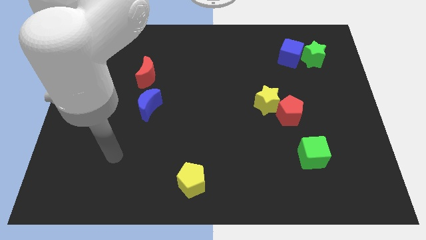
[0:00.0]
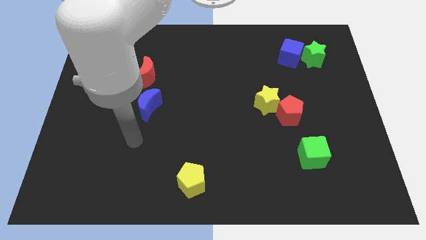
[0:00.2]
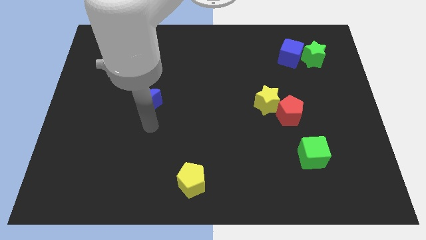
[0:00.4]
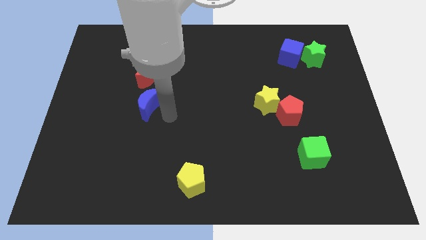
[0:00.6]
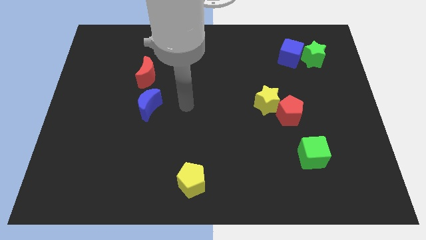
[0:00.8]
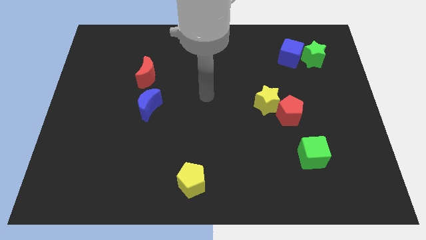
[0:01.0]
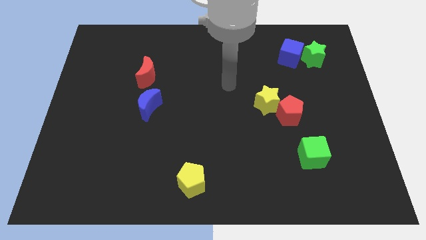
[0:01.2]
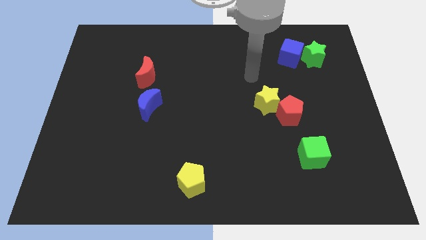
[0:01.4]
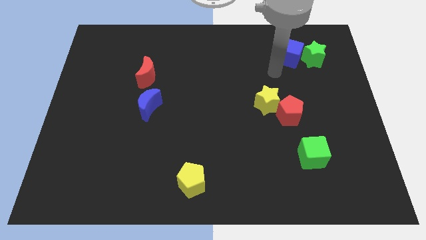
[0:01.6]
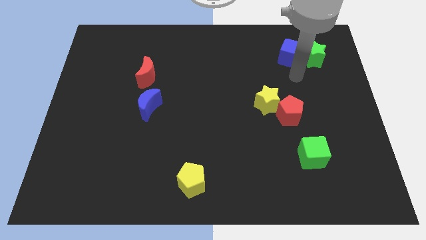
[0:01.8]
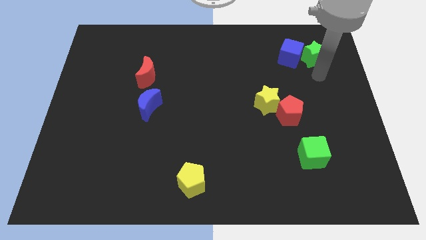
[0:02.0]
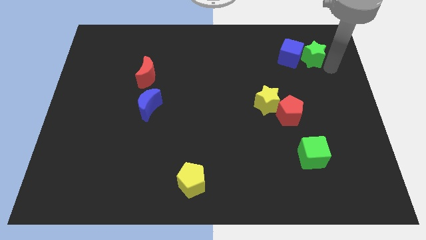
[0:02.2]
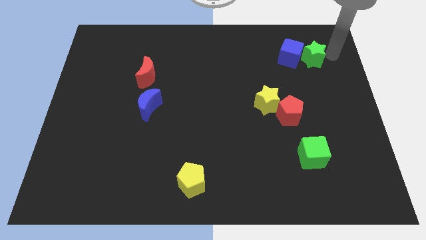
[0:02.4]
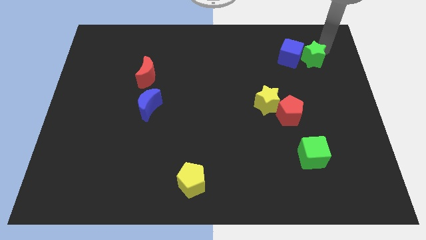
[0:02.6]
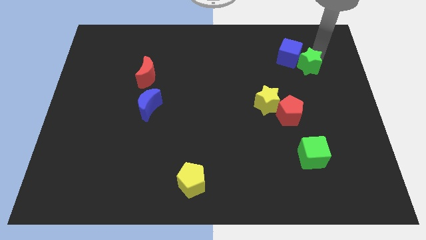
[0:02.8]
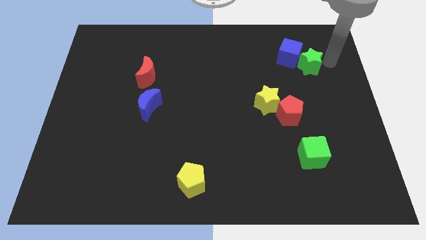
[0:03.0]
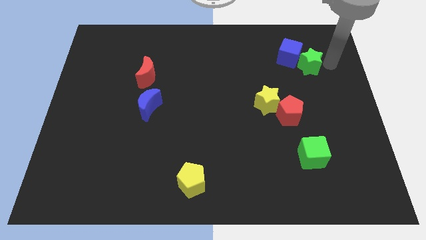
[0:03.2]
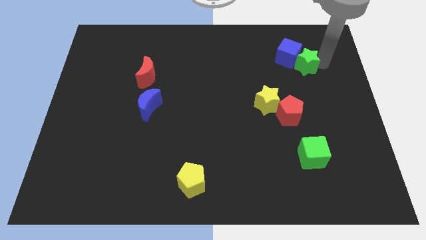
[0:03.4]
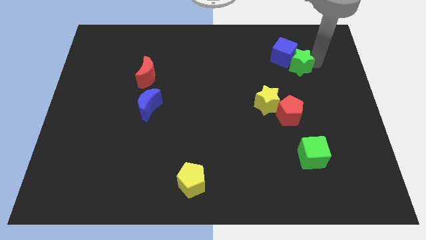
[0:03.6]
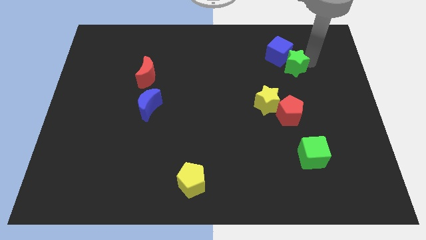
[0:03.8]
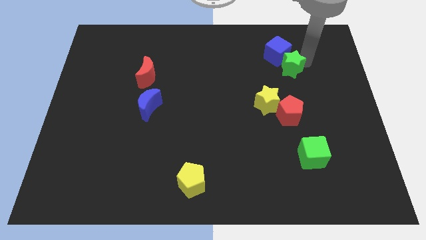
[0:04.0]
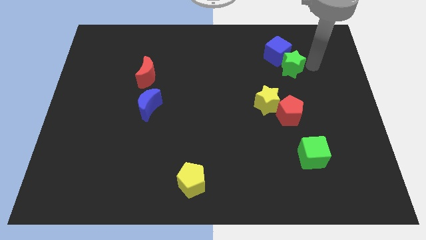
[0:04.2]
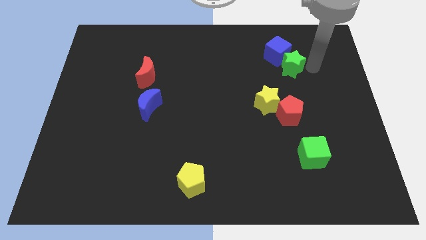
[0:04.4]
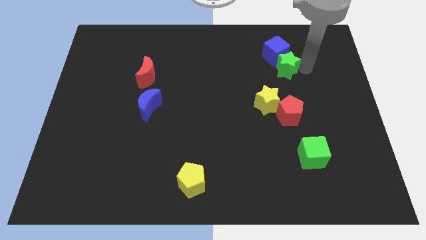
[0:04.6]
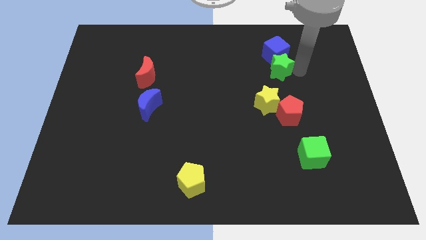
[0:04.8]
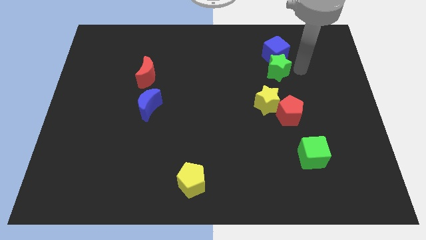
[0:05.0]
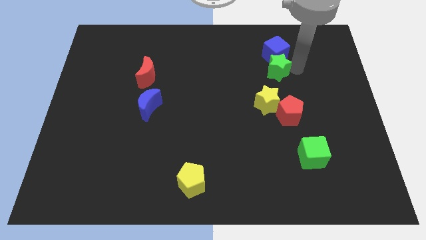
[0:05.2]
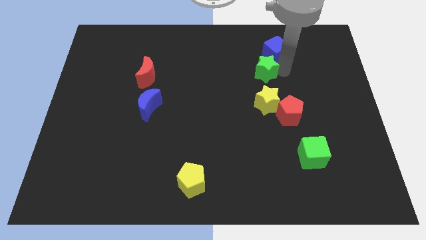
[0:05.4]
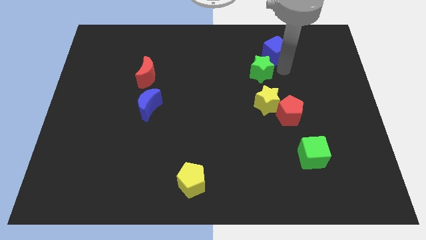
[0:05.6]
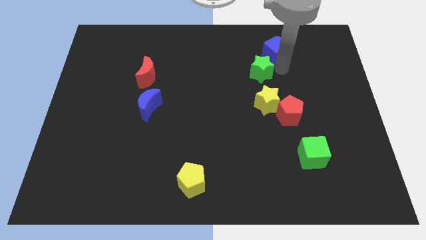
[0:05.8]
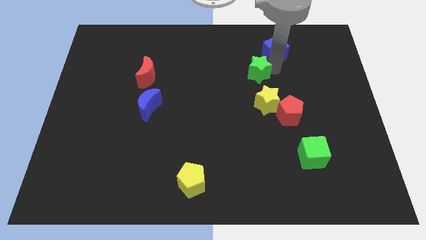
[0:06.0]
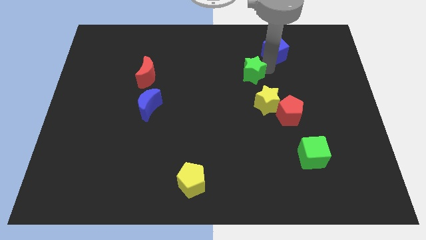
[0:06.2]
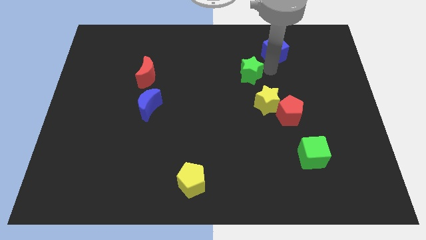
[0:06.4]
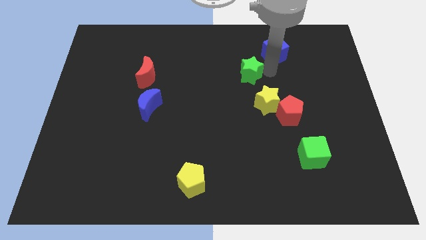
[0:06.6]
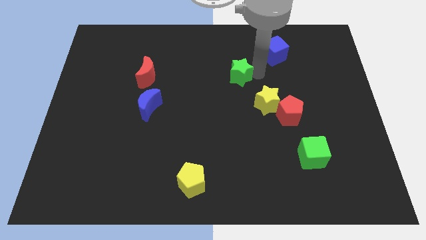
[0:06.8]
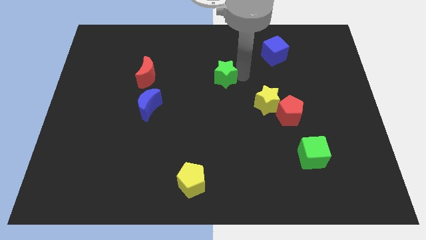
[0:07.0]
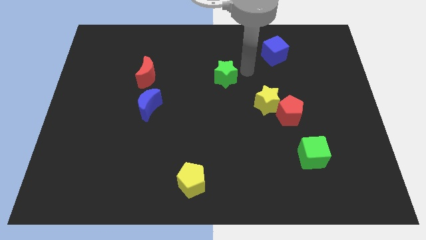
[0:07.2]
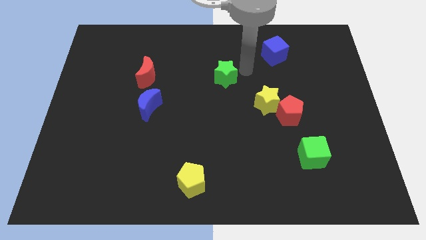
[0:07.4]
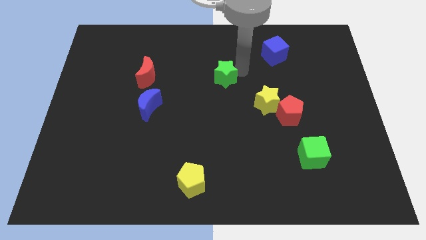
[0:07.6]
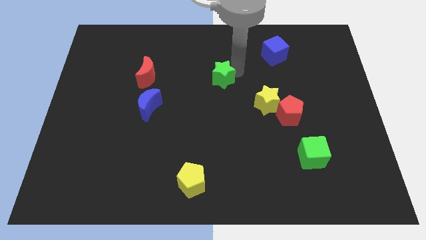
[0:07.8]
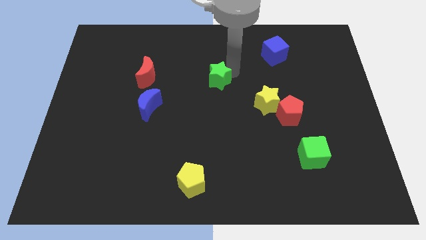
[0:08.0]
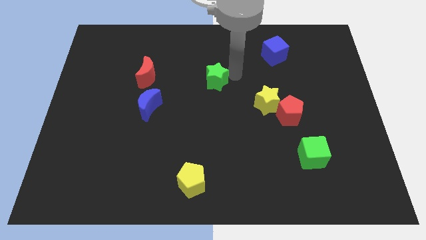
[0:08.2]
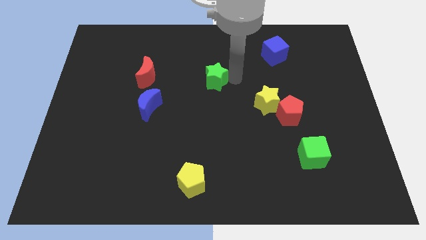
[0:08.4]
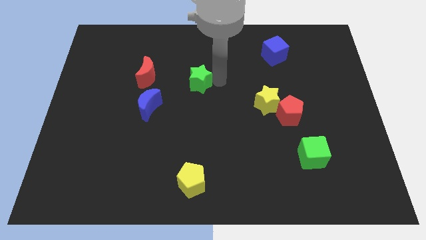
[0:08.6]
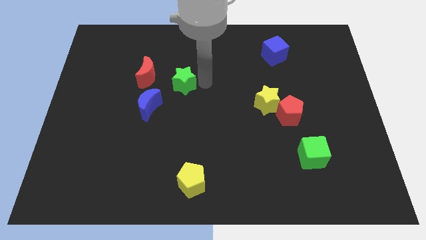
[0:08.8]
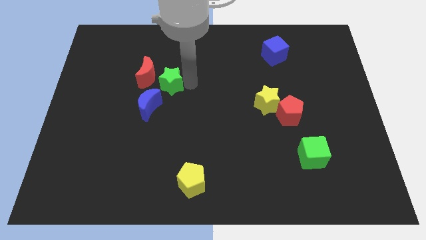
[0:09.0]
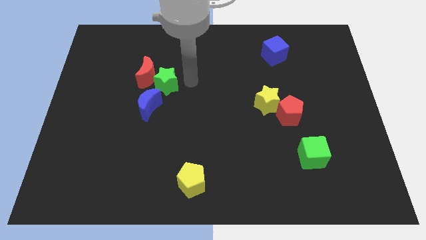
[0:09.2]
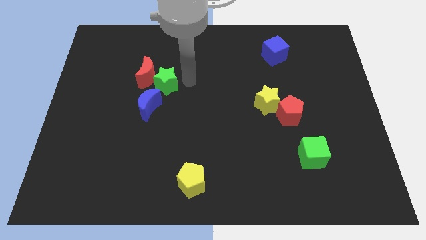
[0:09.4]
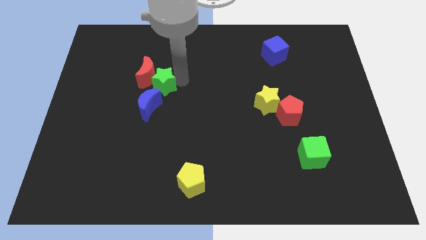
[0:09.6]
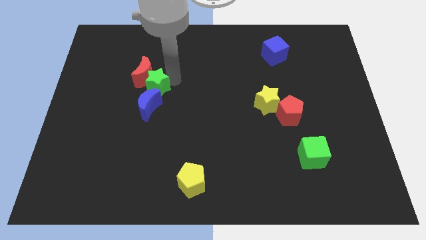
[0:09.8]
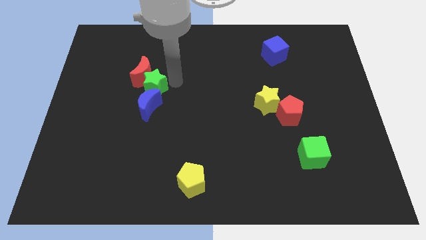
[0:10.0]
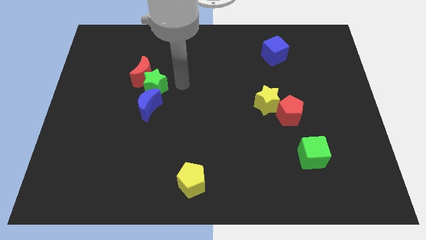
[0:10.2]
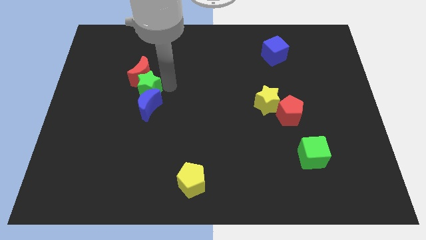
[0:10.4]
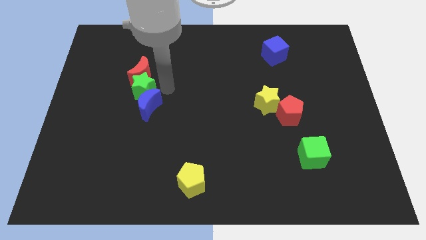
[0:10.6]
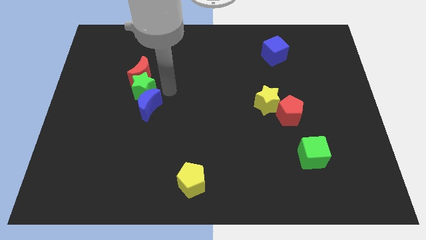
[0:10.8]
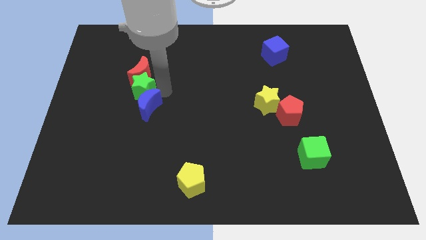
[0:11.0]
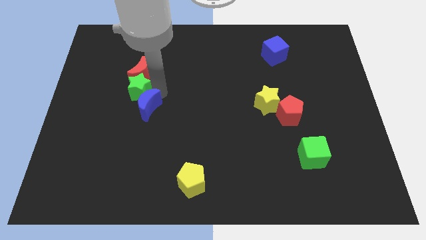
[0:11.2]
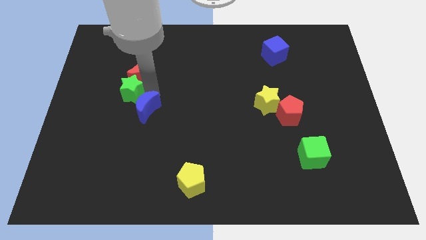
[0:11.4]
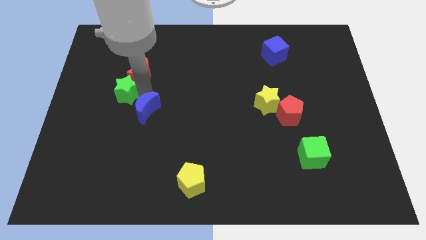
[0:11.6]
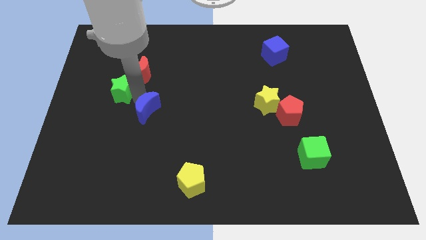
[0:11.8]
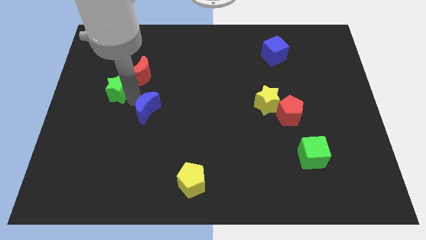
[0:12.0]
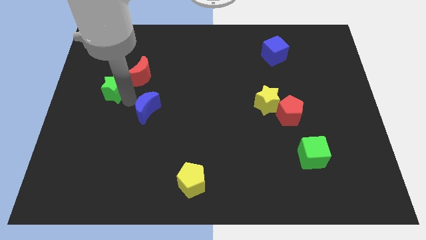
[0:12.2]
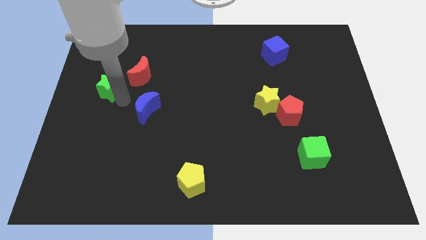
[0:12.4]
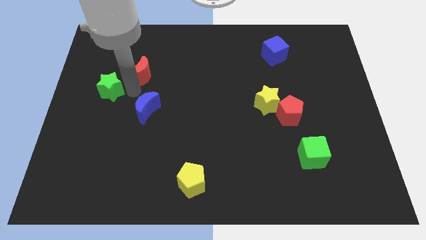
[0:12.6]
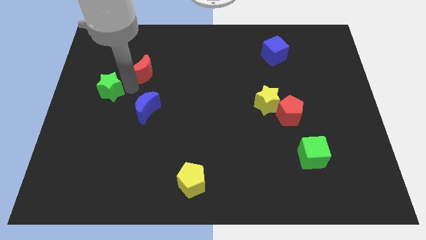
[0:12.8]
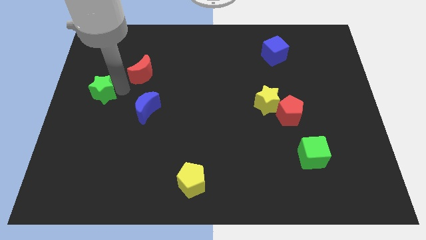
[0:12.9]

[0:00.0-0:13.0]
move the green star to the center left
